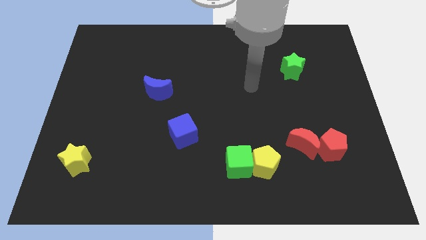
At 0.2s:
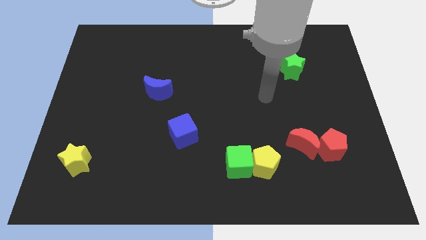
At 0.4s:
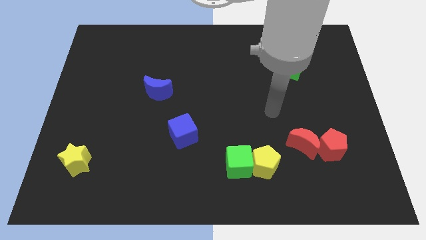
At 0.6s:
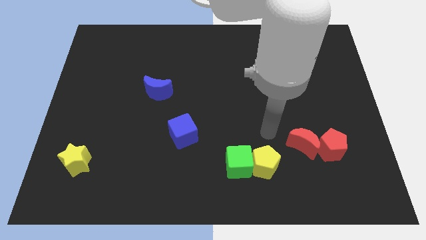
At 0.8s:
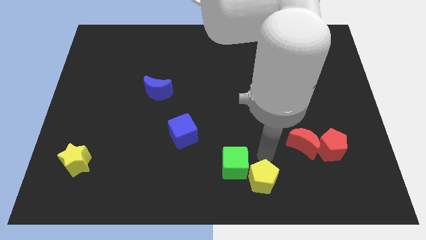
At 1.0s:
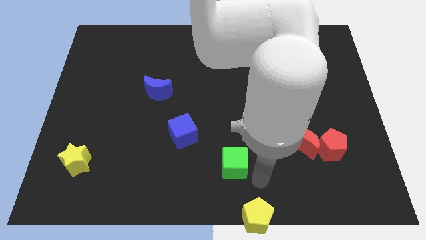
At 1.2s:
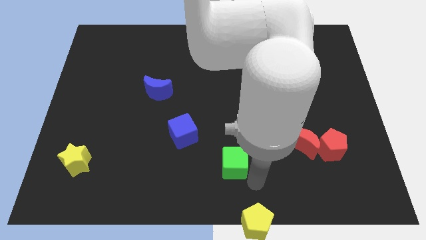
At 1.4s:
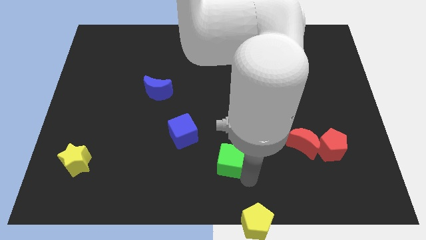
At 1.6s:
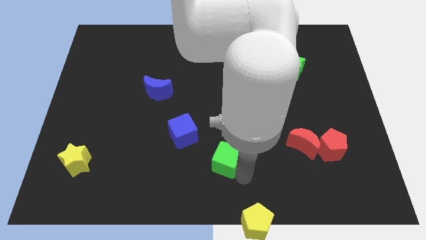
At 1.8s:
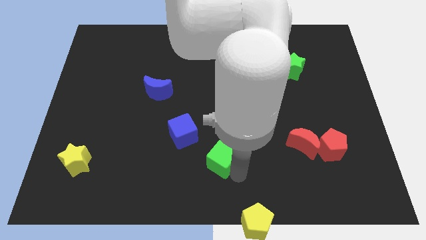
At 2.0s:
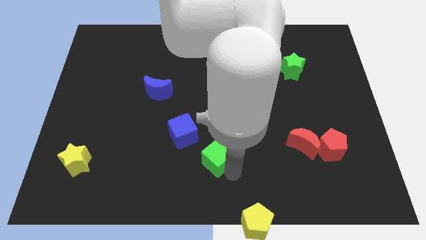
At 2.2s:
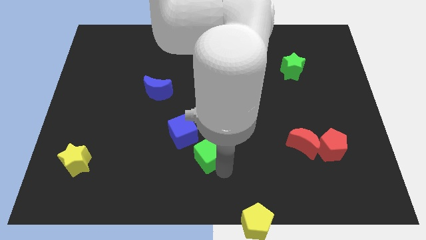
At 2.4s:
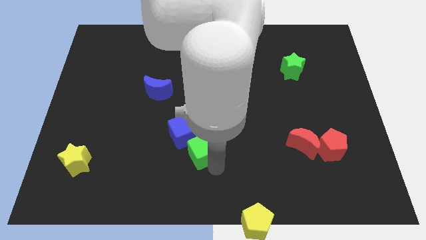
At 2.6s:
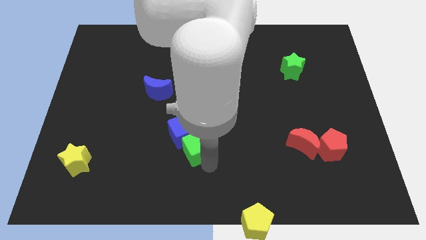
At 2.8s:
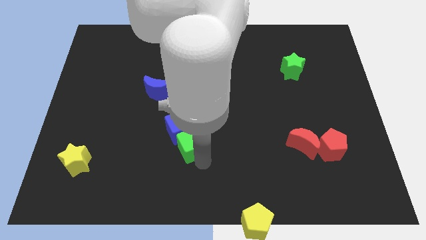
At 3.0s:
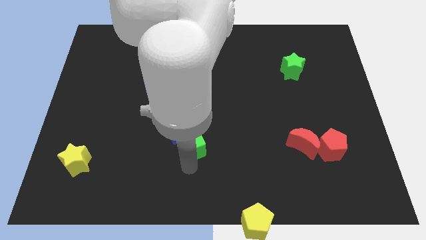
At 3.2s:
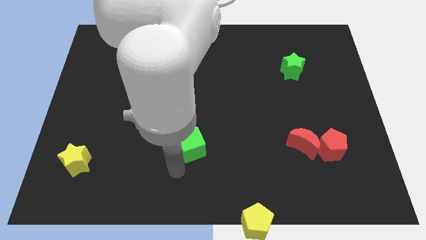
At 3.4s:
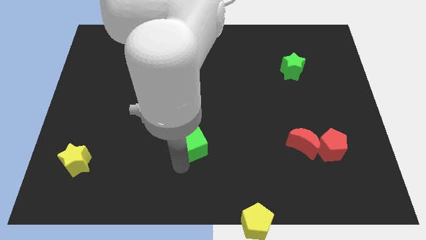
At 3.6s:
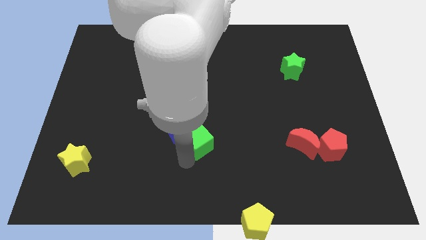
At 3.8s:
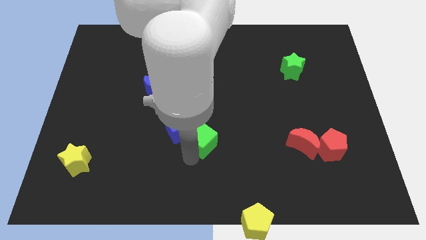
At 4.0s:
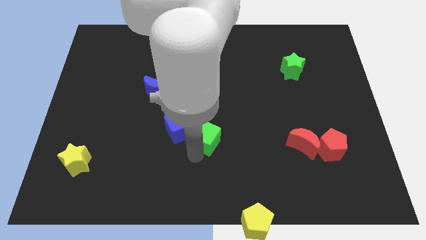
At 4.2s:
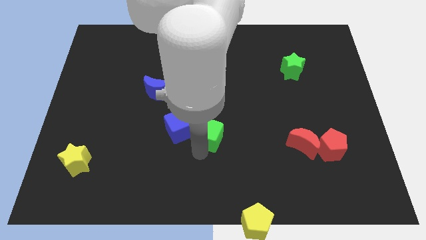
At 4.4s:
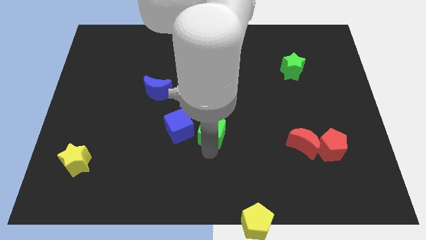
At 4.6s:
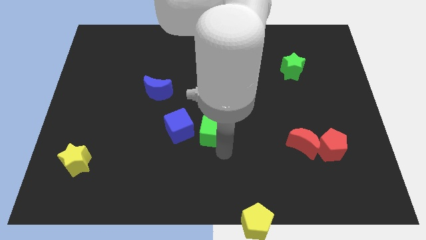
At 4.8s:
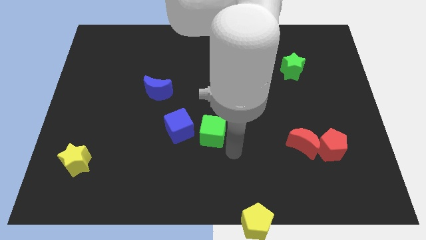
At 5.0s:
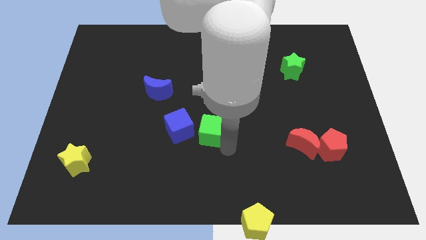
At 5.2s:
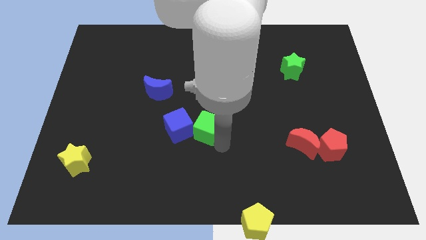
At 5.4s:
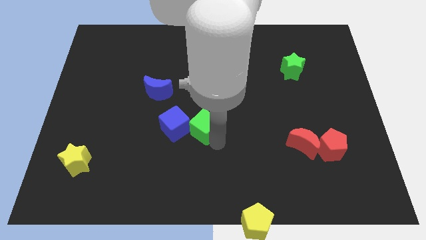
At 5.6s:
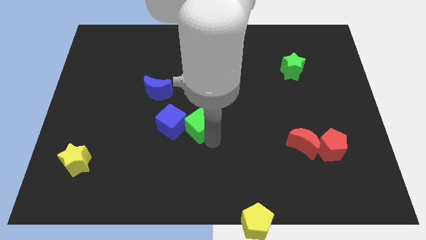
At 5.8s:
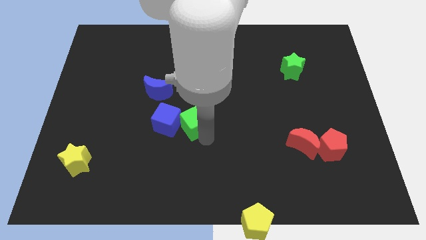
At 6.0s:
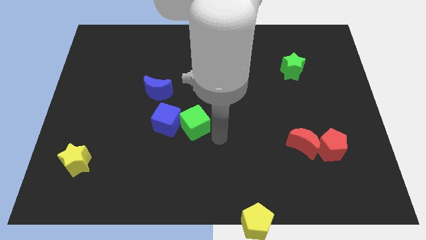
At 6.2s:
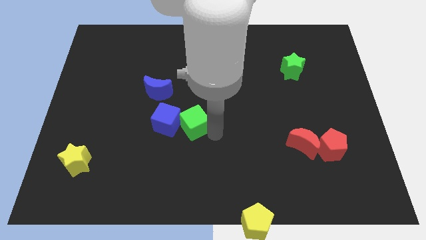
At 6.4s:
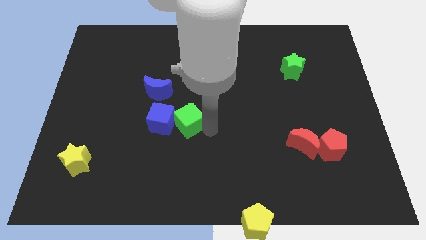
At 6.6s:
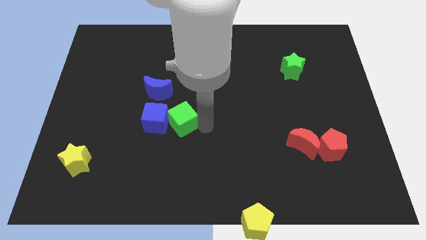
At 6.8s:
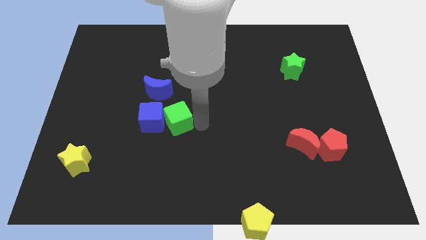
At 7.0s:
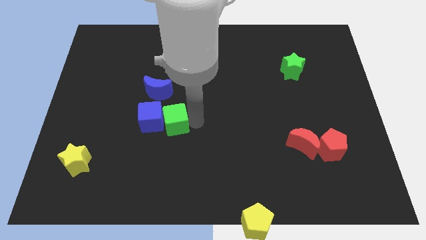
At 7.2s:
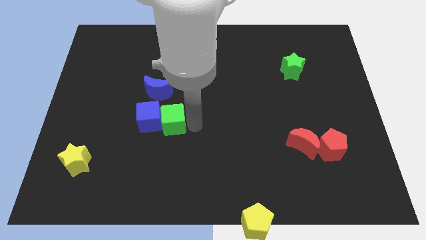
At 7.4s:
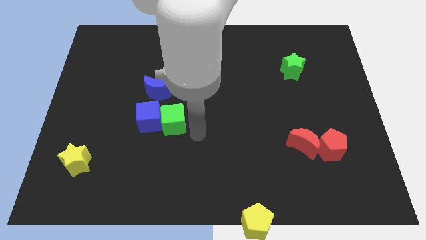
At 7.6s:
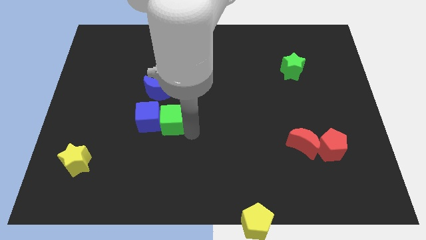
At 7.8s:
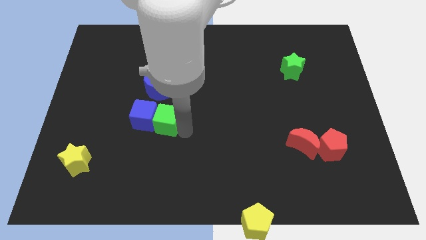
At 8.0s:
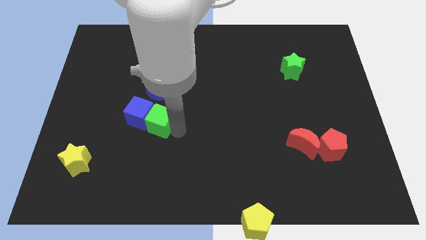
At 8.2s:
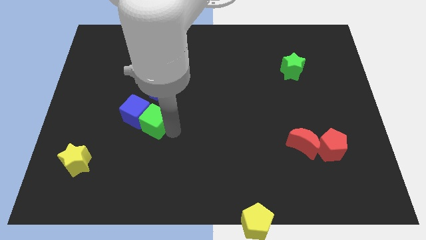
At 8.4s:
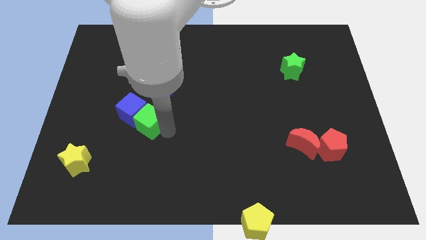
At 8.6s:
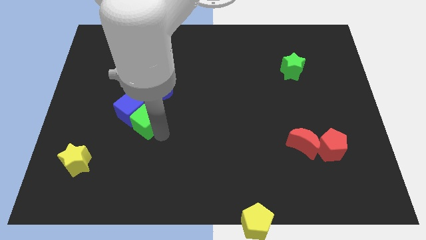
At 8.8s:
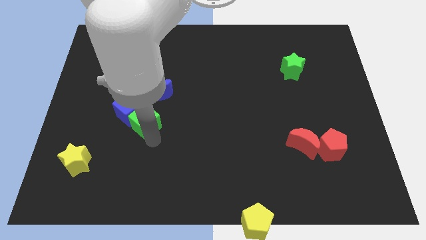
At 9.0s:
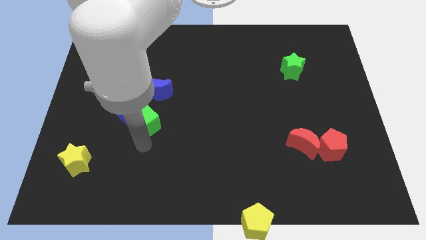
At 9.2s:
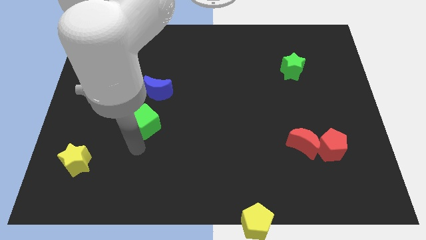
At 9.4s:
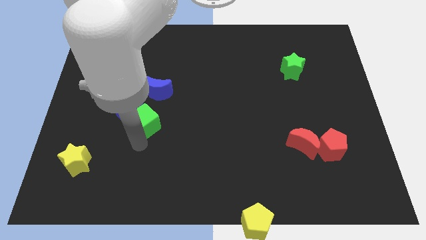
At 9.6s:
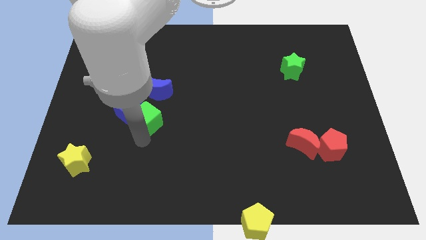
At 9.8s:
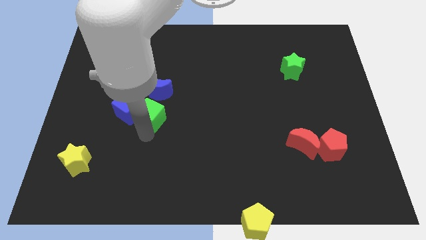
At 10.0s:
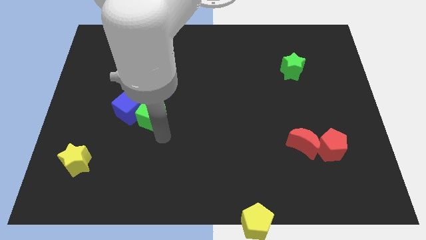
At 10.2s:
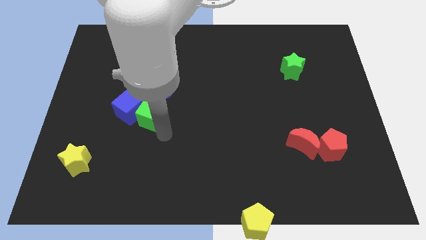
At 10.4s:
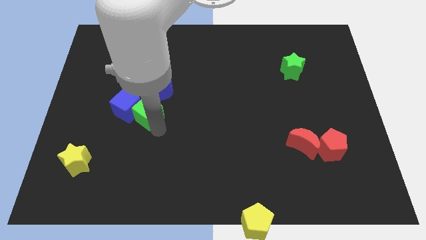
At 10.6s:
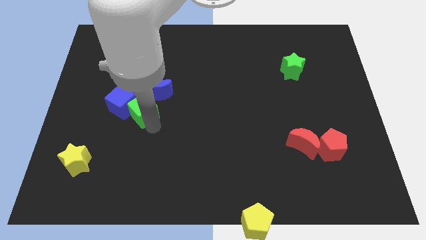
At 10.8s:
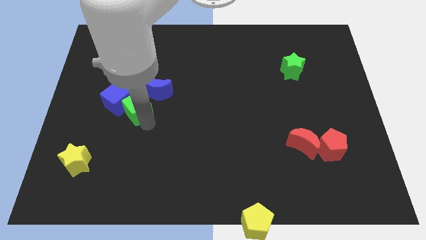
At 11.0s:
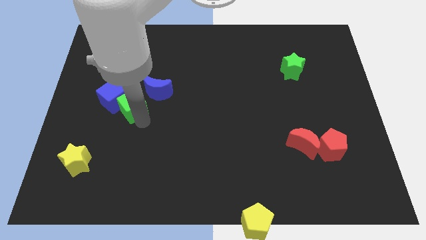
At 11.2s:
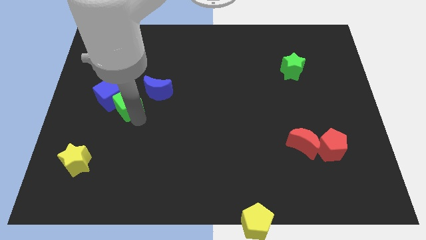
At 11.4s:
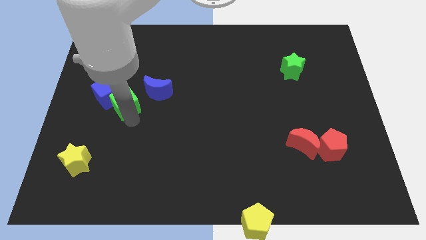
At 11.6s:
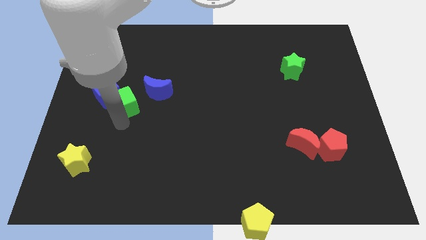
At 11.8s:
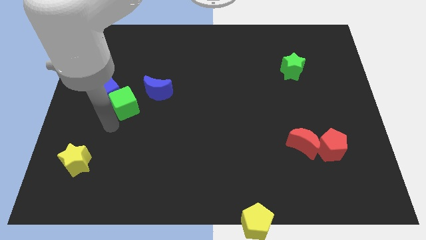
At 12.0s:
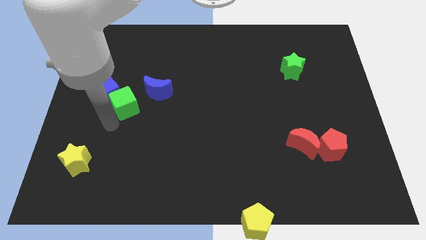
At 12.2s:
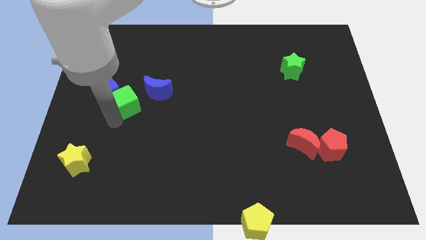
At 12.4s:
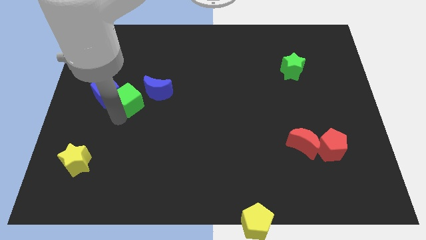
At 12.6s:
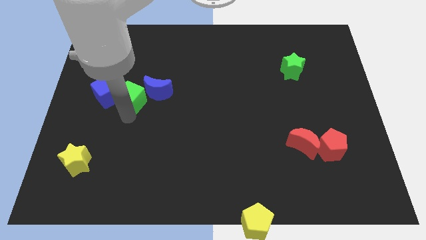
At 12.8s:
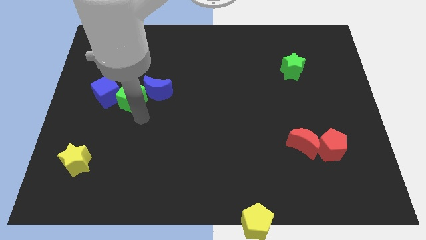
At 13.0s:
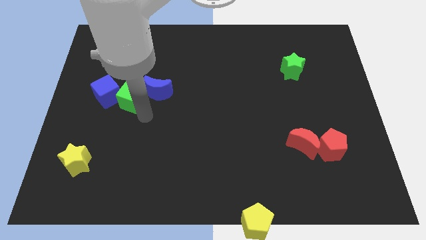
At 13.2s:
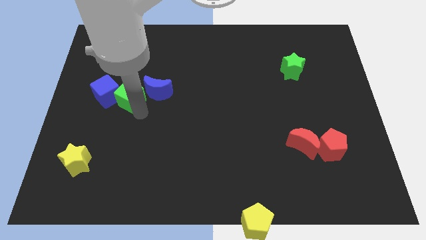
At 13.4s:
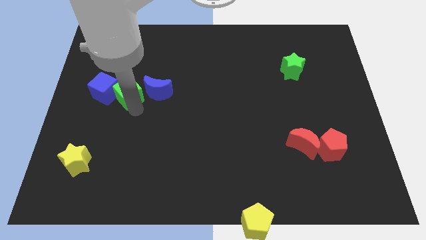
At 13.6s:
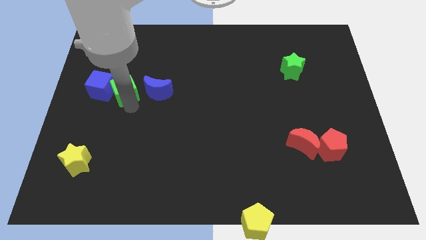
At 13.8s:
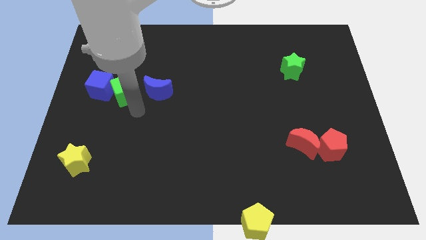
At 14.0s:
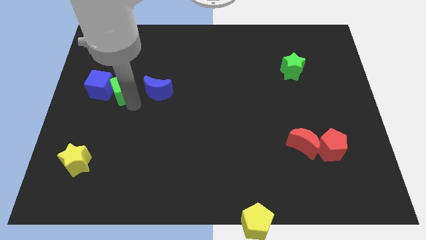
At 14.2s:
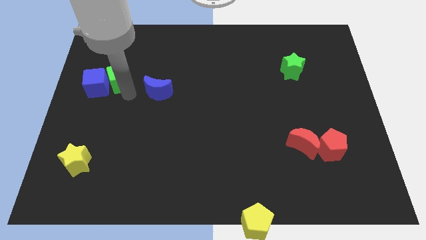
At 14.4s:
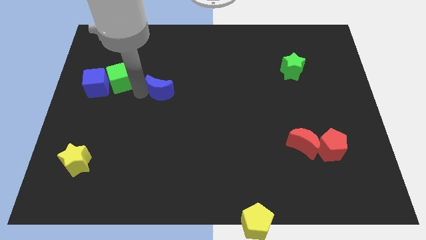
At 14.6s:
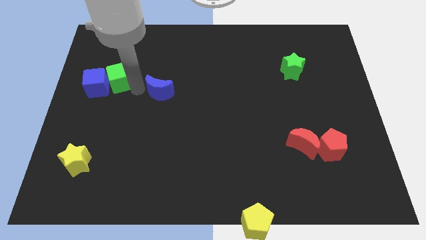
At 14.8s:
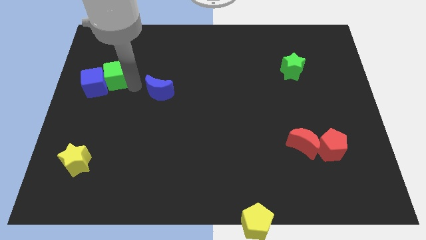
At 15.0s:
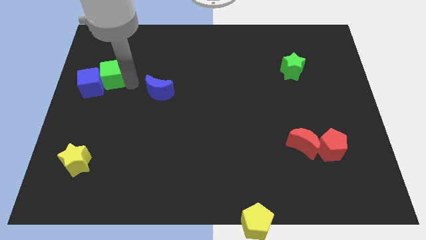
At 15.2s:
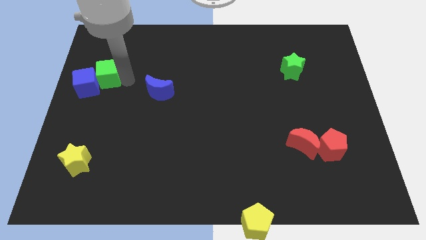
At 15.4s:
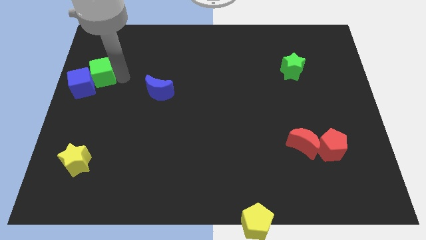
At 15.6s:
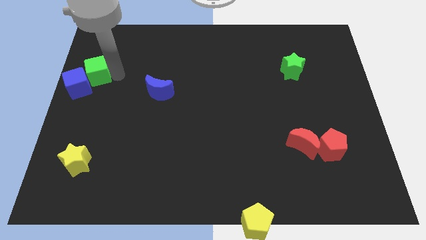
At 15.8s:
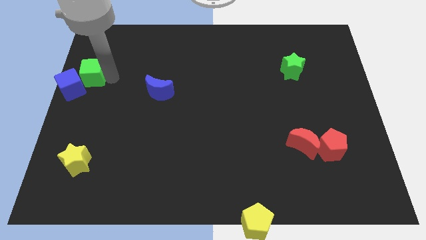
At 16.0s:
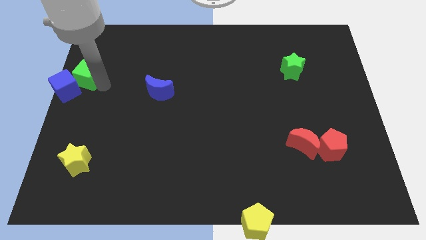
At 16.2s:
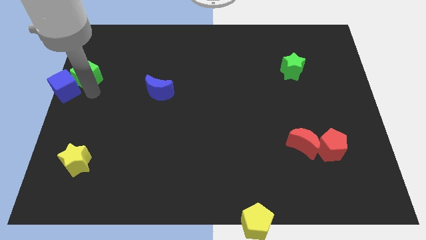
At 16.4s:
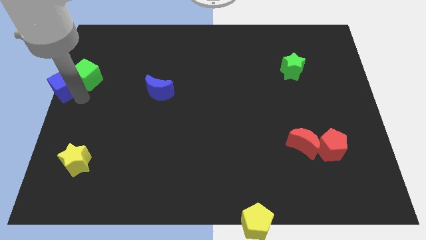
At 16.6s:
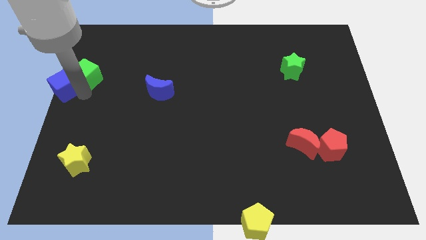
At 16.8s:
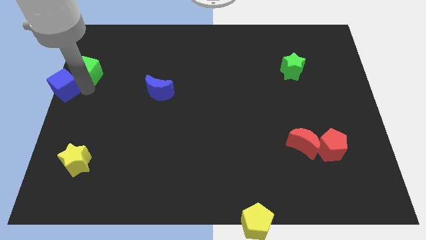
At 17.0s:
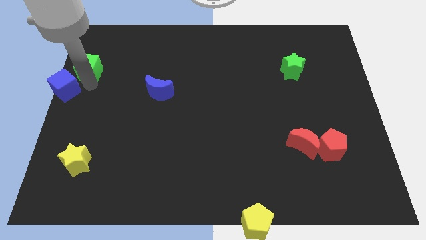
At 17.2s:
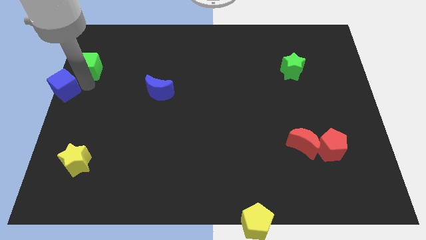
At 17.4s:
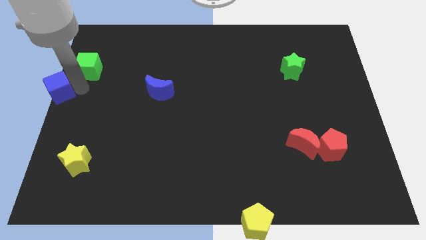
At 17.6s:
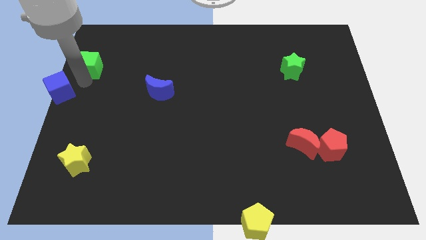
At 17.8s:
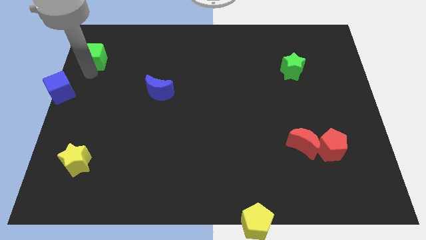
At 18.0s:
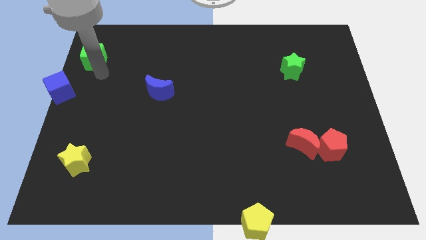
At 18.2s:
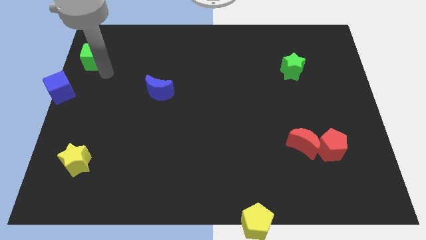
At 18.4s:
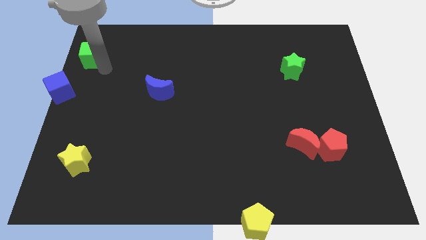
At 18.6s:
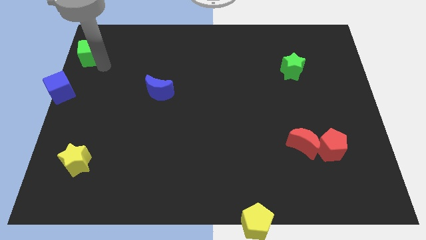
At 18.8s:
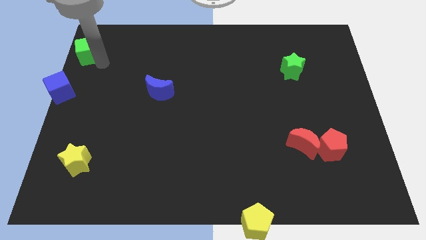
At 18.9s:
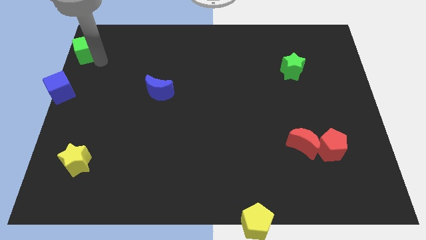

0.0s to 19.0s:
move the green cube to the top left of the board
